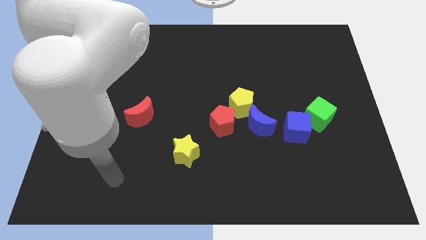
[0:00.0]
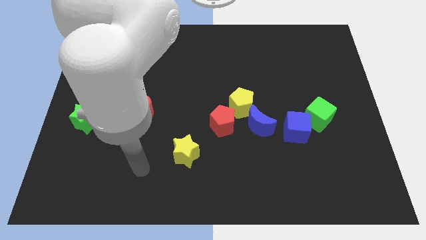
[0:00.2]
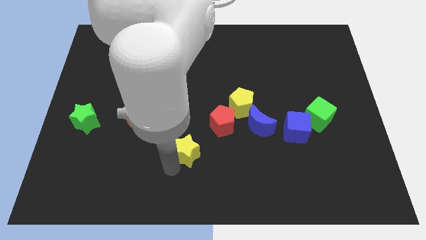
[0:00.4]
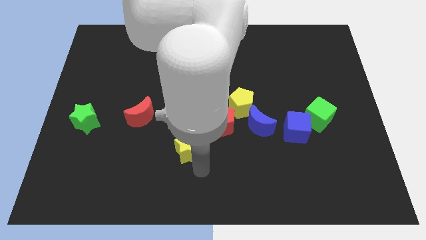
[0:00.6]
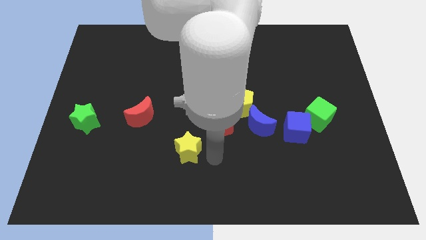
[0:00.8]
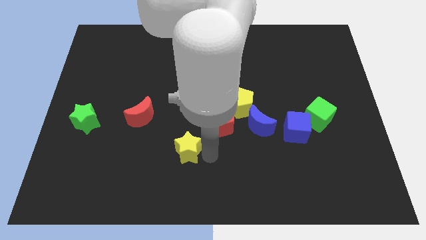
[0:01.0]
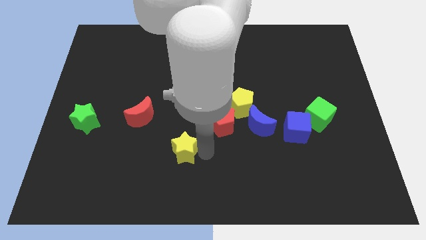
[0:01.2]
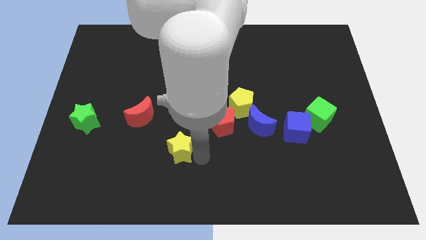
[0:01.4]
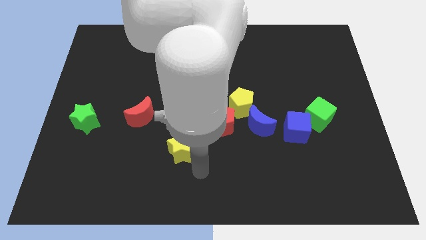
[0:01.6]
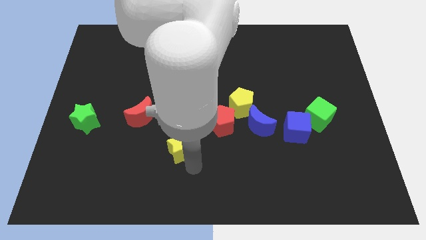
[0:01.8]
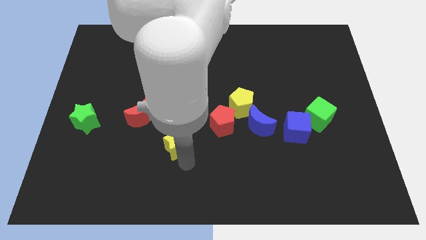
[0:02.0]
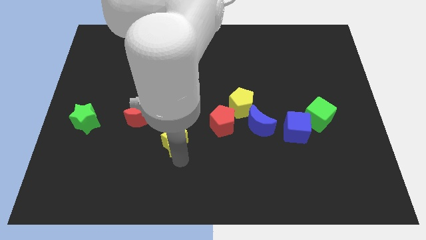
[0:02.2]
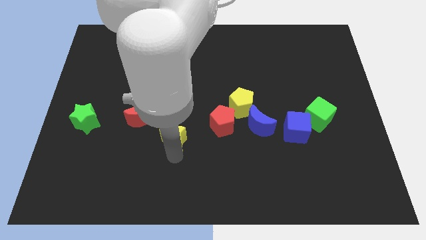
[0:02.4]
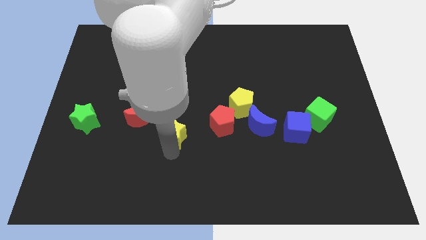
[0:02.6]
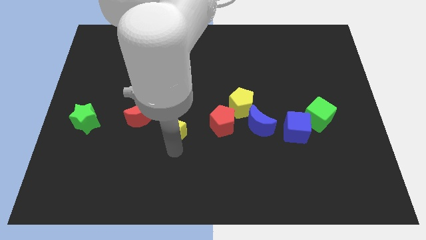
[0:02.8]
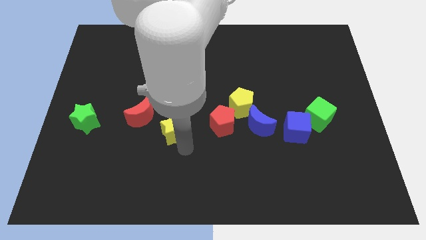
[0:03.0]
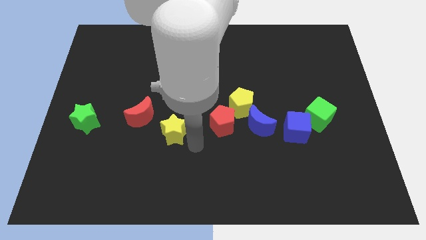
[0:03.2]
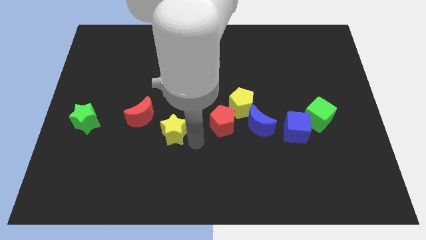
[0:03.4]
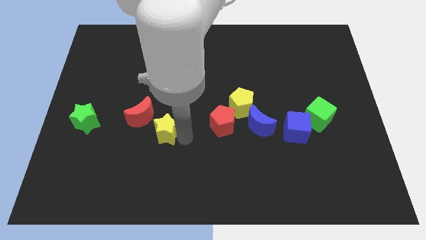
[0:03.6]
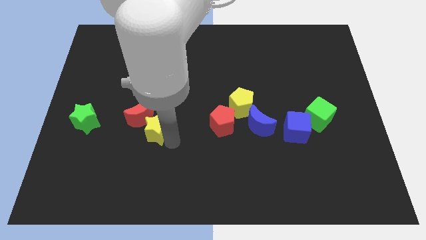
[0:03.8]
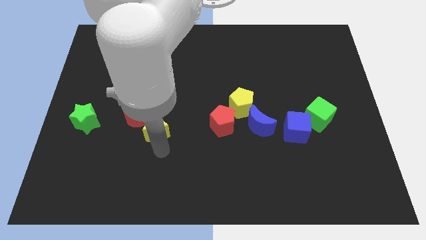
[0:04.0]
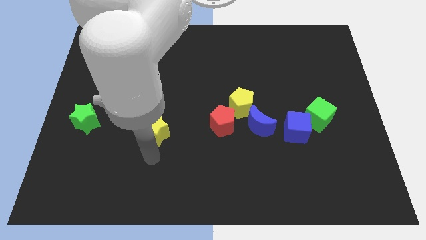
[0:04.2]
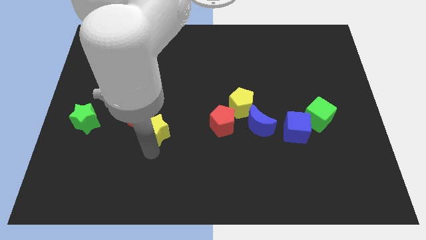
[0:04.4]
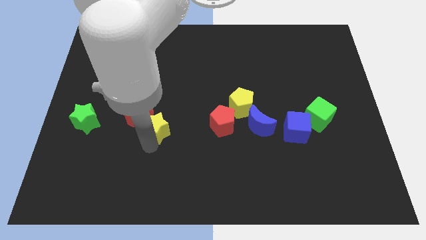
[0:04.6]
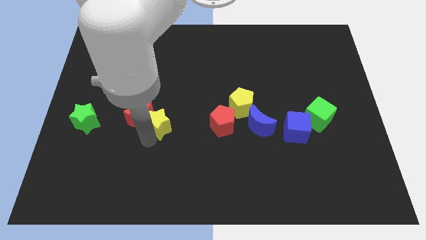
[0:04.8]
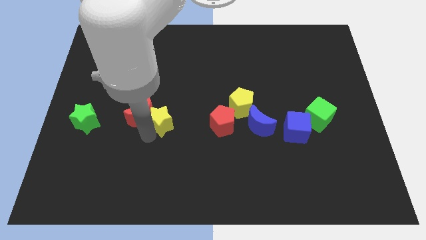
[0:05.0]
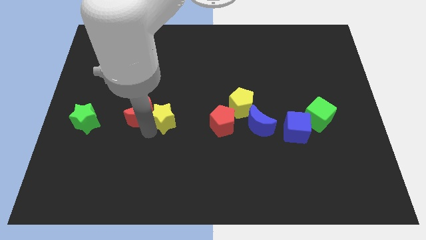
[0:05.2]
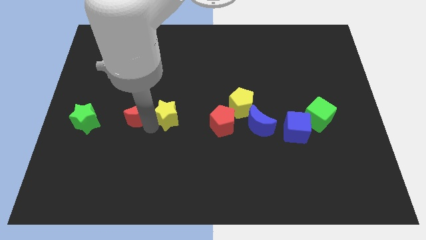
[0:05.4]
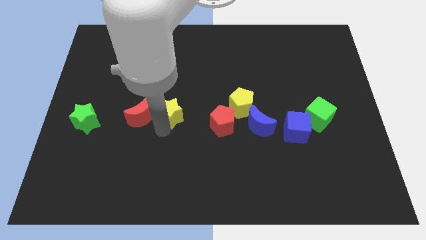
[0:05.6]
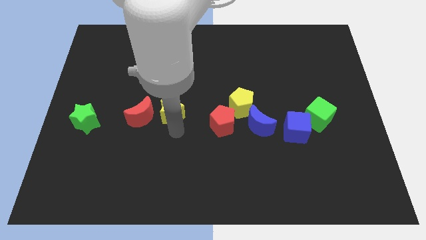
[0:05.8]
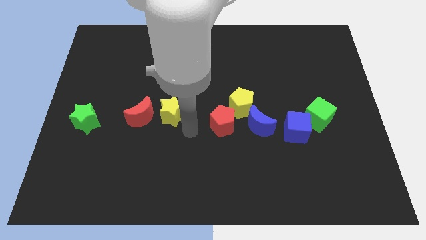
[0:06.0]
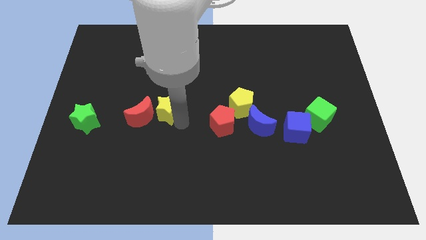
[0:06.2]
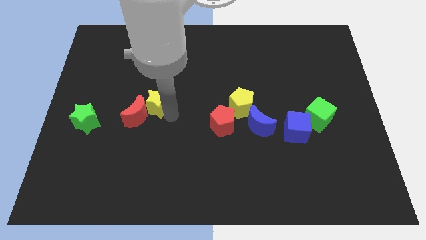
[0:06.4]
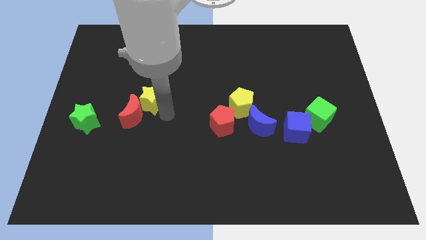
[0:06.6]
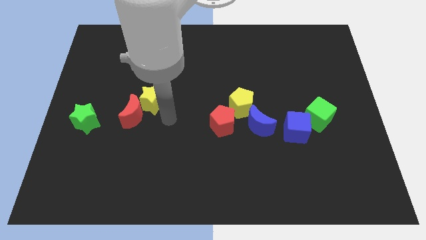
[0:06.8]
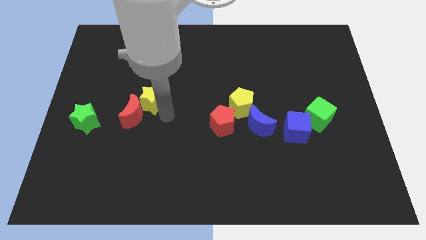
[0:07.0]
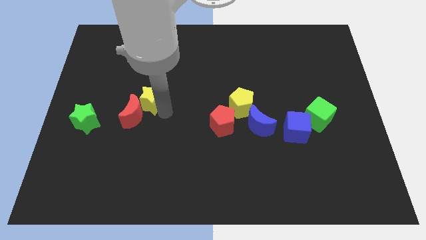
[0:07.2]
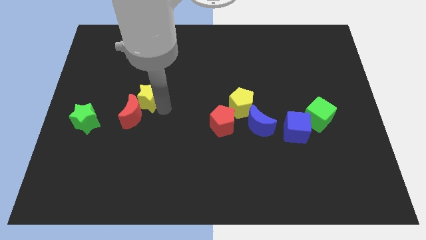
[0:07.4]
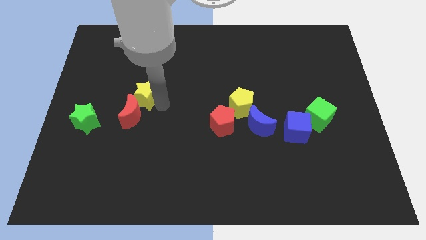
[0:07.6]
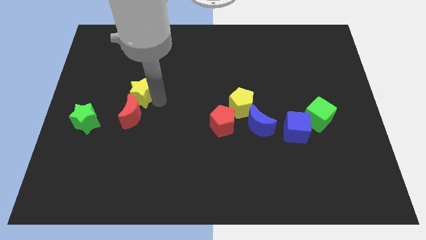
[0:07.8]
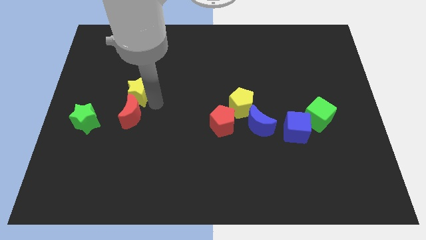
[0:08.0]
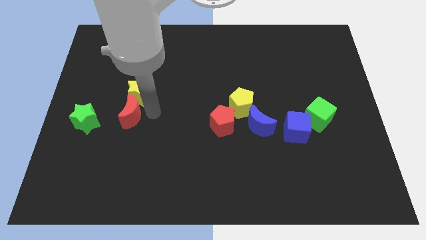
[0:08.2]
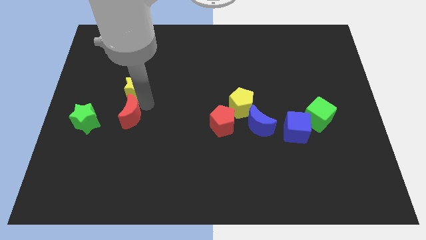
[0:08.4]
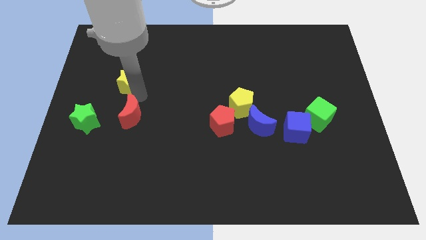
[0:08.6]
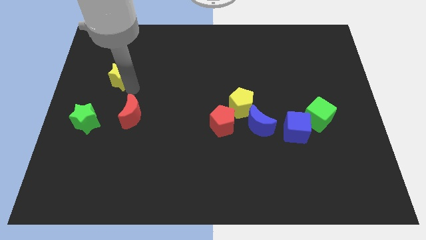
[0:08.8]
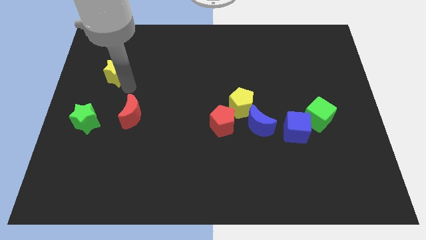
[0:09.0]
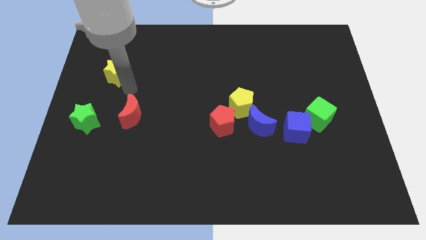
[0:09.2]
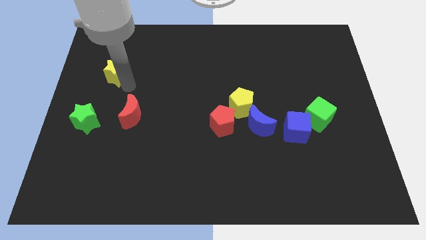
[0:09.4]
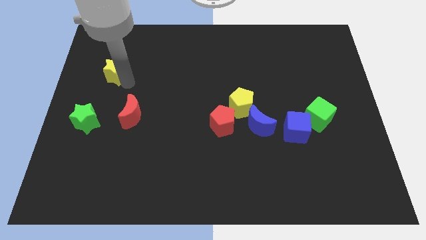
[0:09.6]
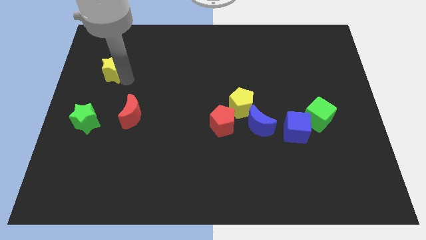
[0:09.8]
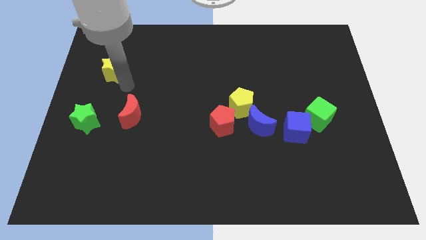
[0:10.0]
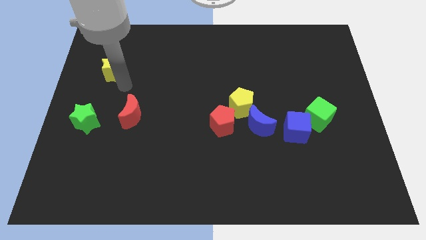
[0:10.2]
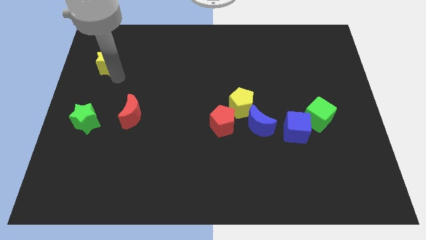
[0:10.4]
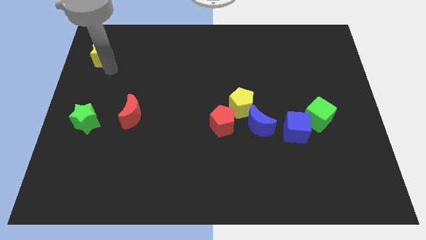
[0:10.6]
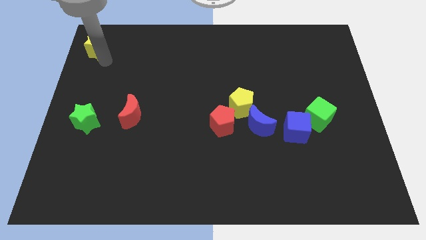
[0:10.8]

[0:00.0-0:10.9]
push the yellow star to the top left corner

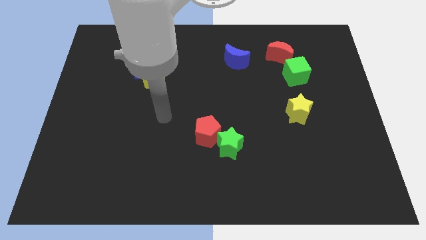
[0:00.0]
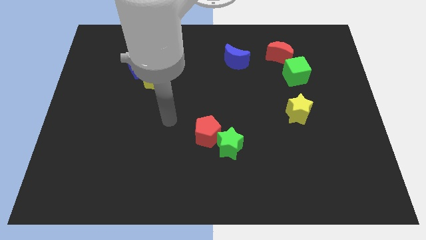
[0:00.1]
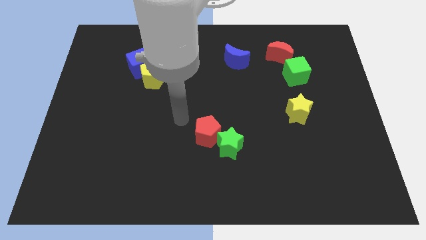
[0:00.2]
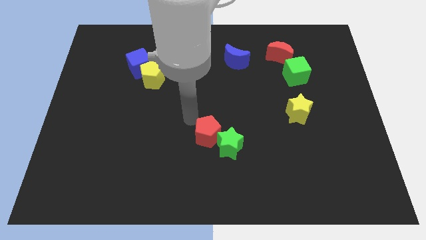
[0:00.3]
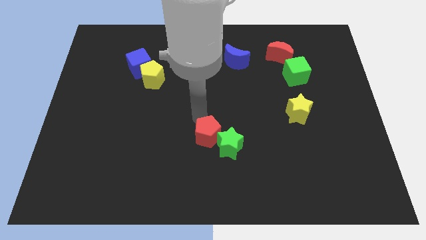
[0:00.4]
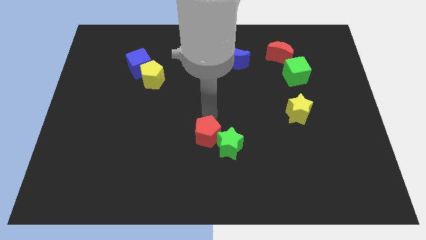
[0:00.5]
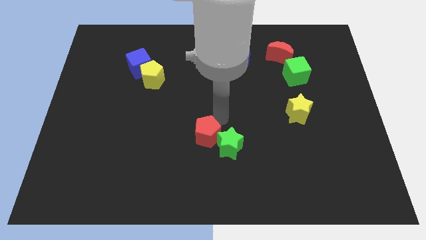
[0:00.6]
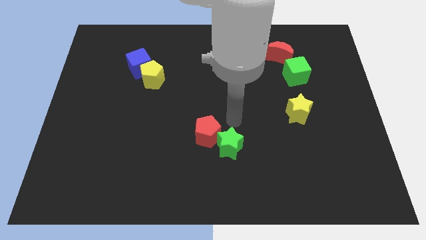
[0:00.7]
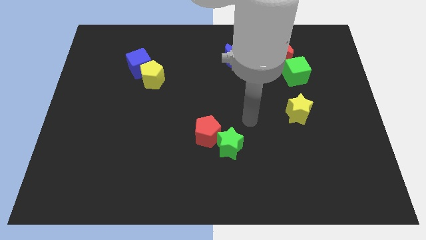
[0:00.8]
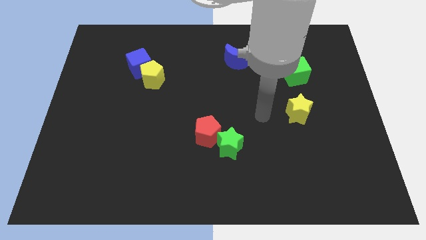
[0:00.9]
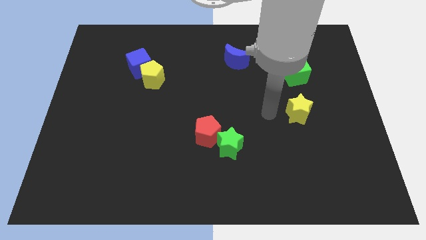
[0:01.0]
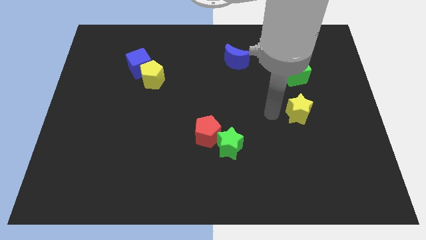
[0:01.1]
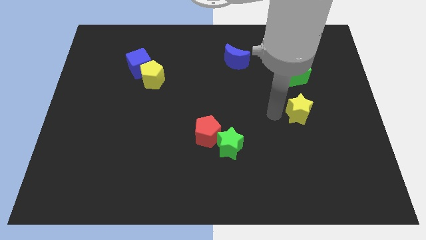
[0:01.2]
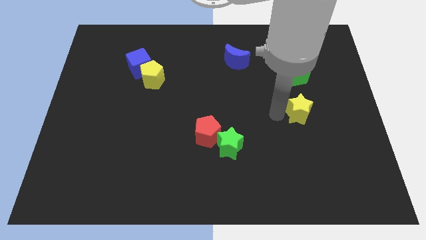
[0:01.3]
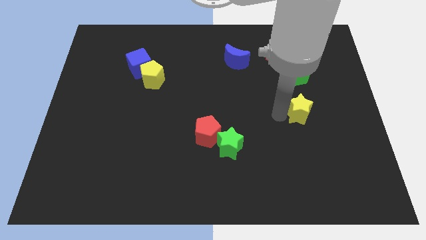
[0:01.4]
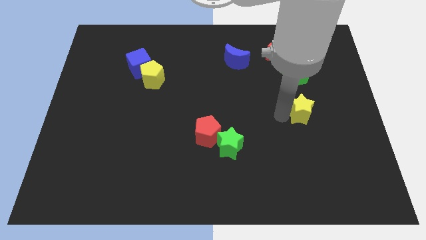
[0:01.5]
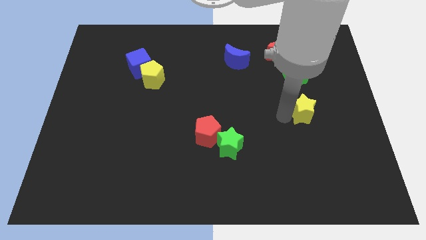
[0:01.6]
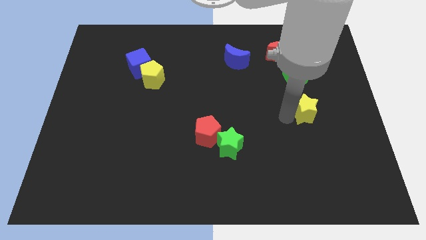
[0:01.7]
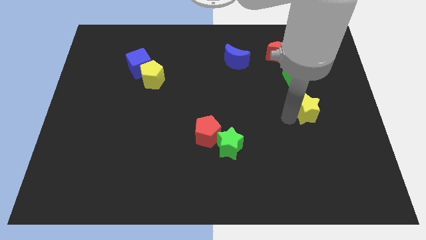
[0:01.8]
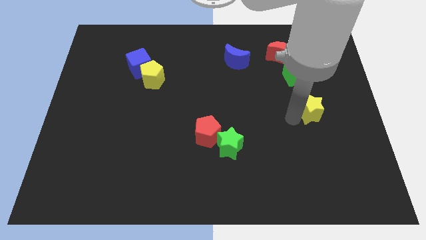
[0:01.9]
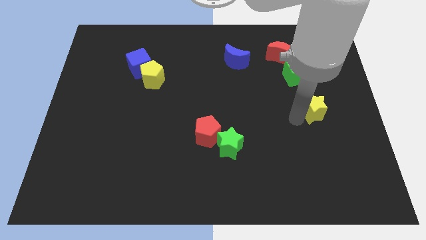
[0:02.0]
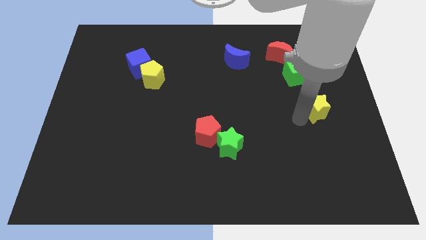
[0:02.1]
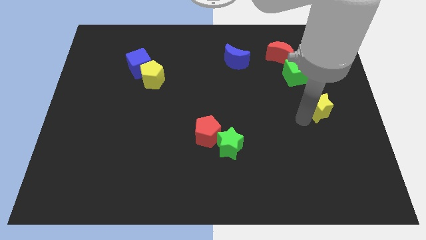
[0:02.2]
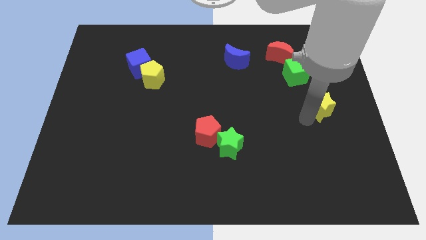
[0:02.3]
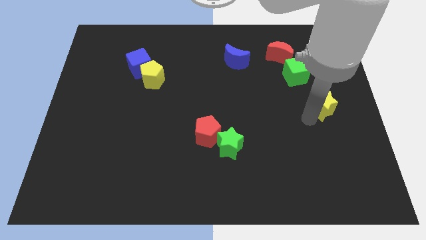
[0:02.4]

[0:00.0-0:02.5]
put the yellow star to the right side of the board
